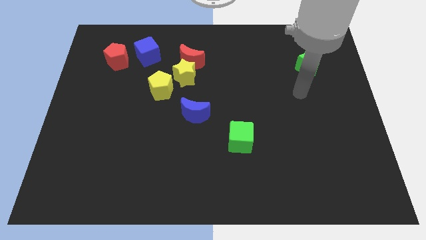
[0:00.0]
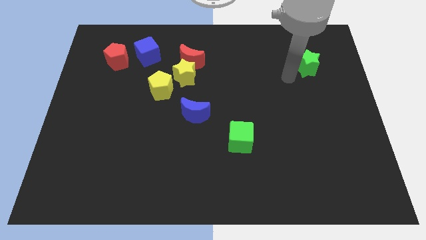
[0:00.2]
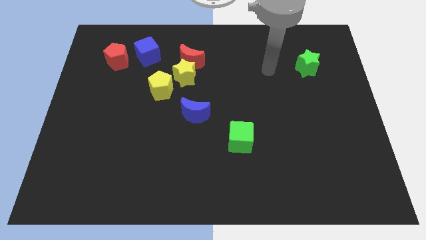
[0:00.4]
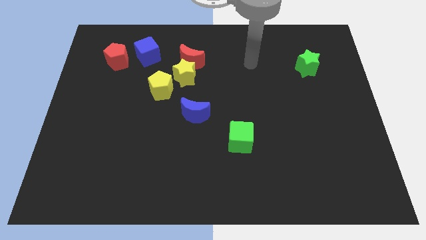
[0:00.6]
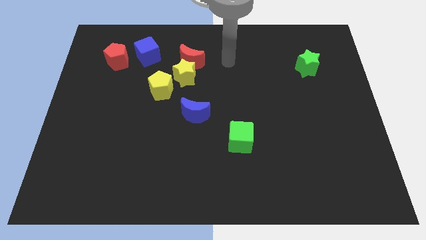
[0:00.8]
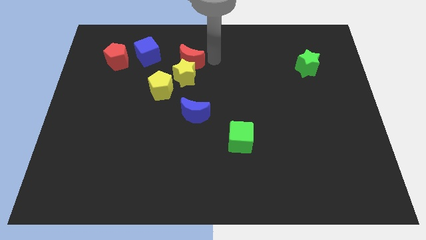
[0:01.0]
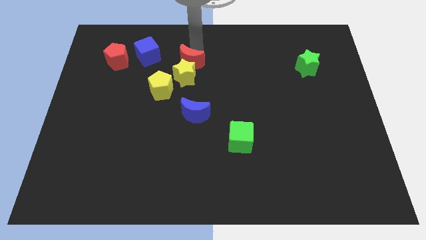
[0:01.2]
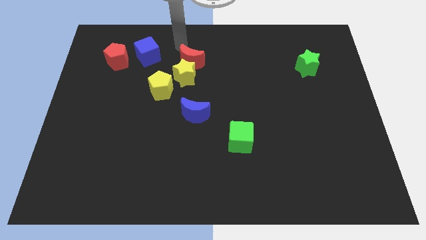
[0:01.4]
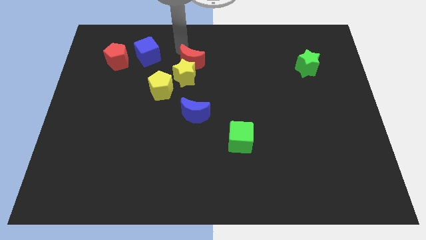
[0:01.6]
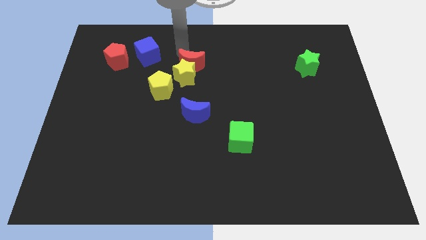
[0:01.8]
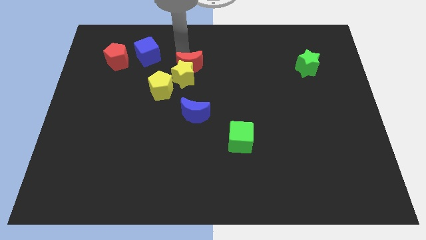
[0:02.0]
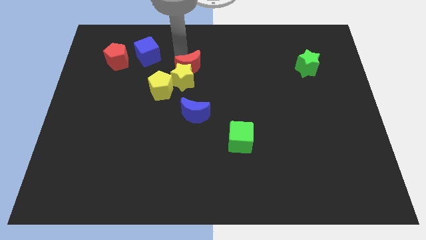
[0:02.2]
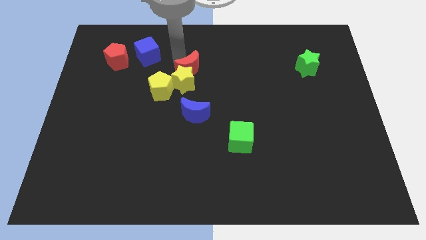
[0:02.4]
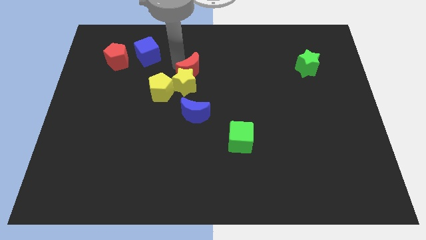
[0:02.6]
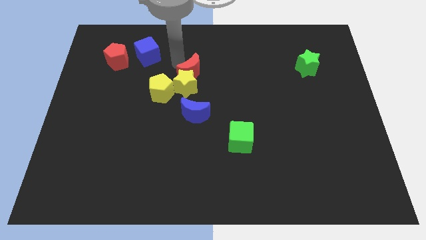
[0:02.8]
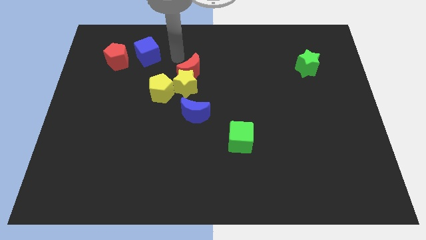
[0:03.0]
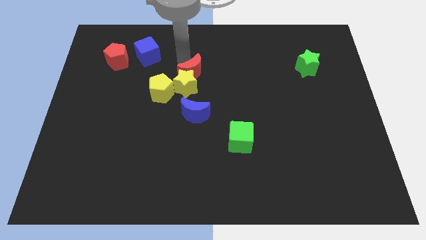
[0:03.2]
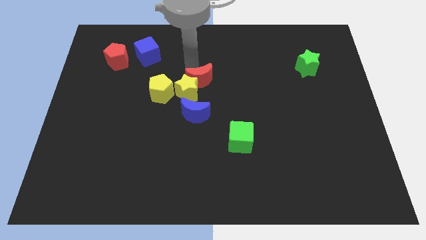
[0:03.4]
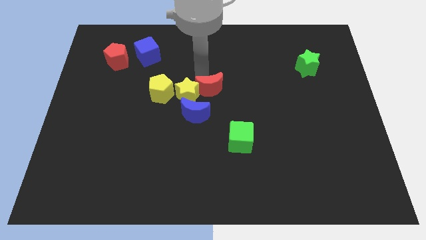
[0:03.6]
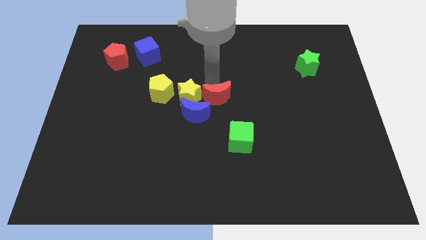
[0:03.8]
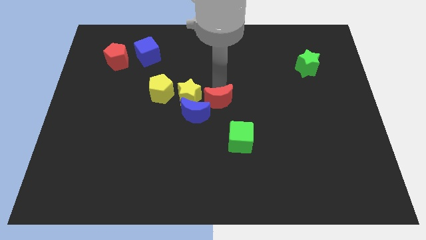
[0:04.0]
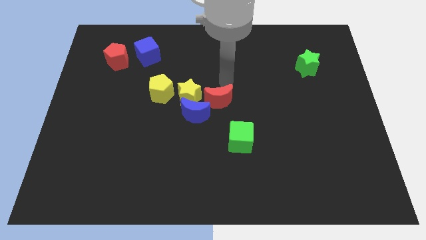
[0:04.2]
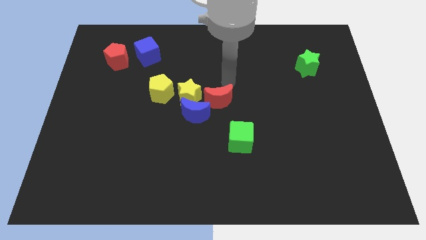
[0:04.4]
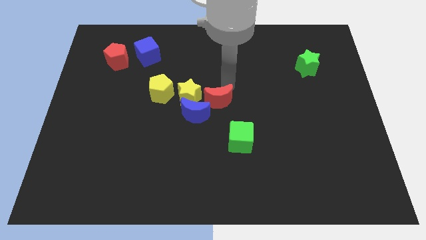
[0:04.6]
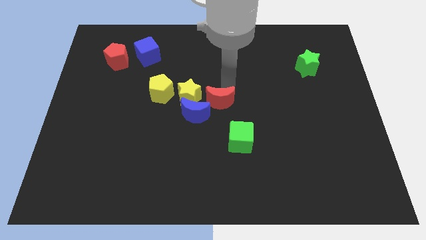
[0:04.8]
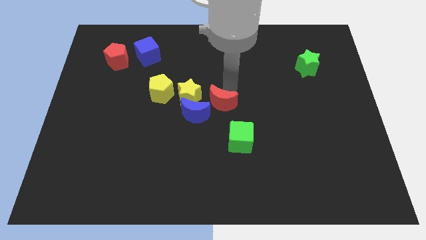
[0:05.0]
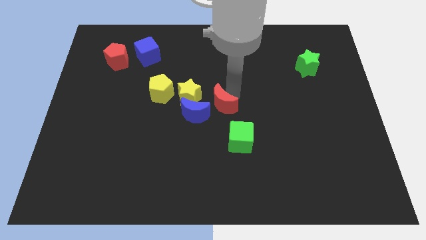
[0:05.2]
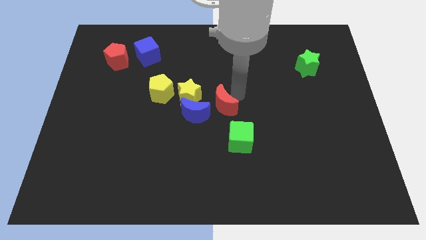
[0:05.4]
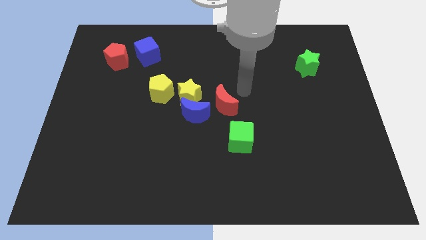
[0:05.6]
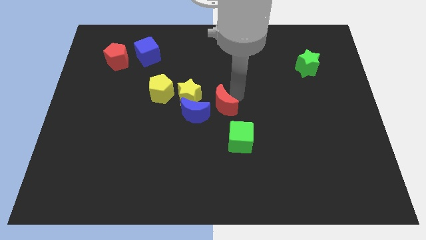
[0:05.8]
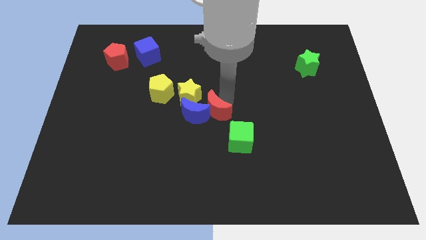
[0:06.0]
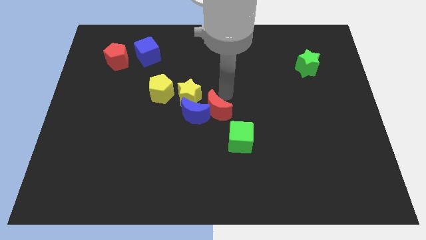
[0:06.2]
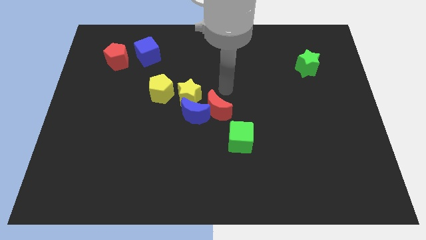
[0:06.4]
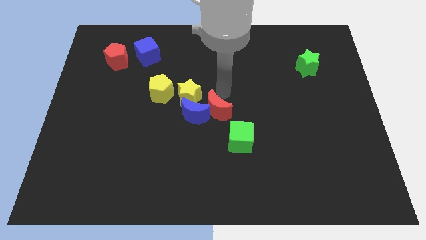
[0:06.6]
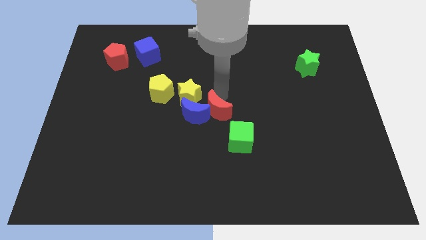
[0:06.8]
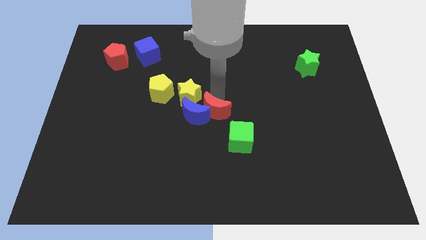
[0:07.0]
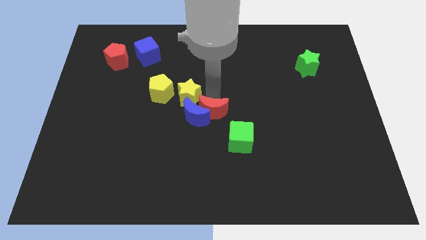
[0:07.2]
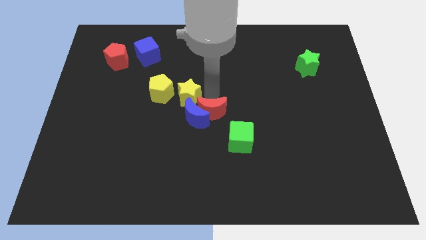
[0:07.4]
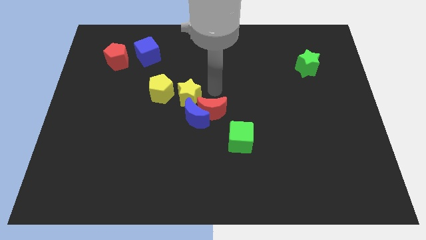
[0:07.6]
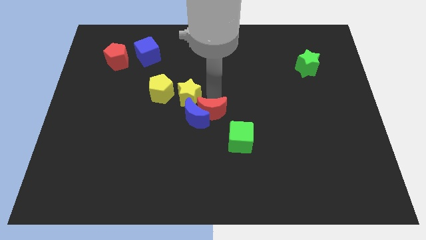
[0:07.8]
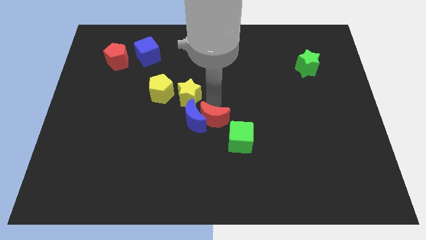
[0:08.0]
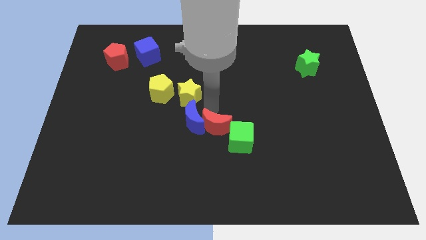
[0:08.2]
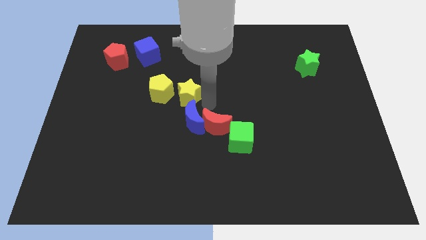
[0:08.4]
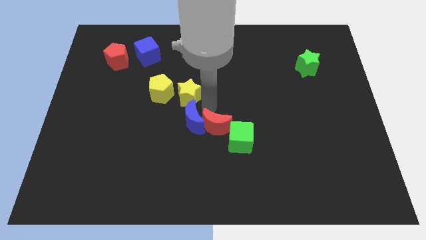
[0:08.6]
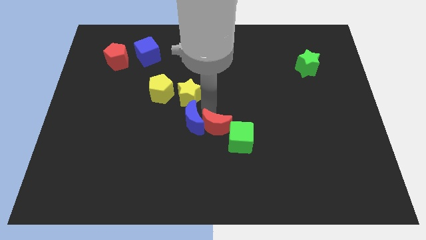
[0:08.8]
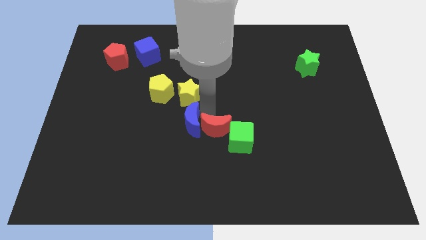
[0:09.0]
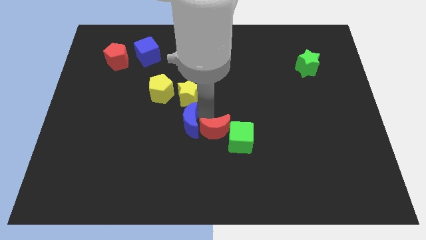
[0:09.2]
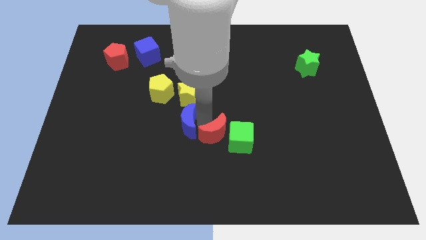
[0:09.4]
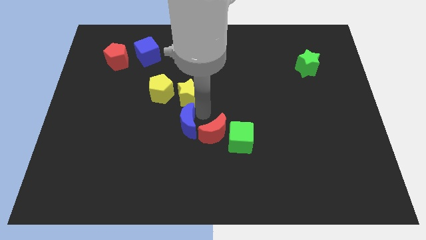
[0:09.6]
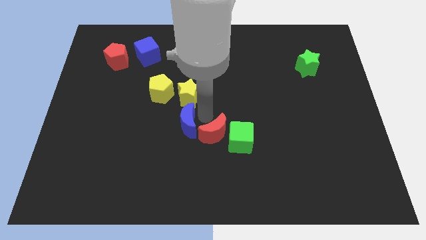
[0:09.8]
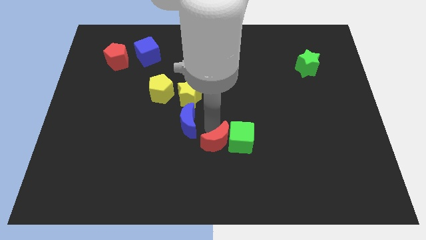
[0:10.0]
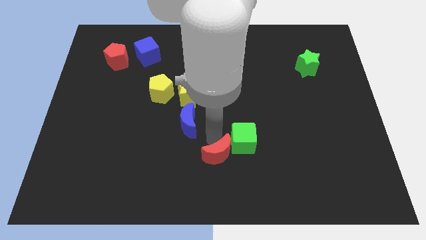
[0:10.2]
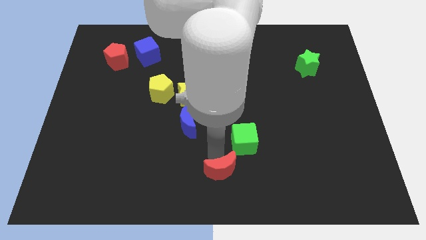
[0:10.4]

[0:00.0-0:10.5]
push the red moon to the bottom of the green cube

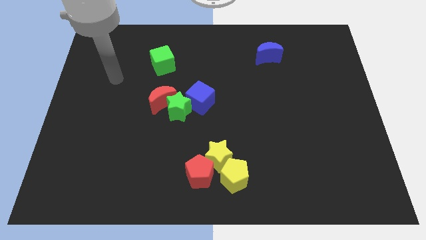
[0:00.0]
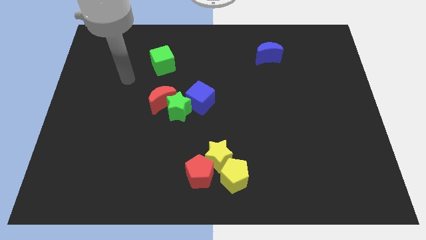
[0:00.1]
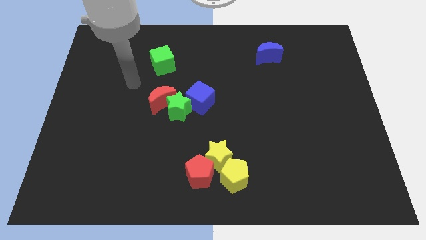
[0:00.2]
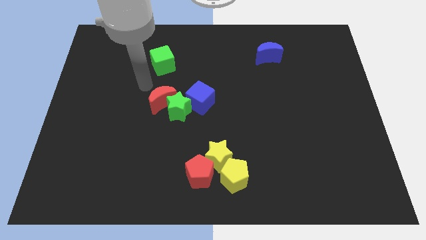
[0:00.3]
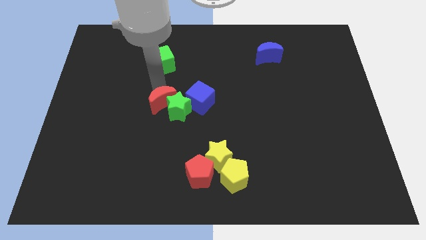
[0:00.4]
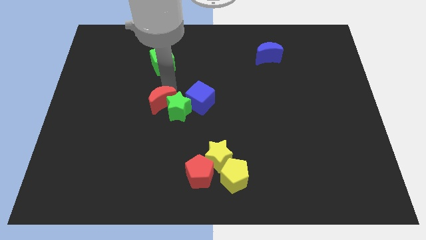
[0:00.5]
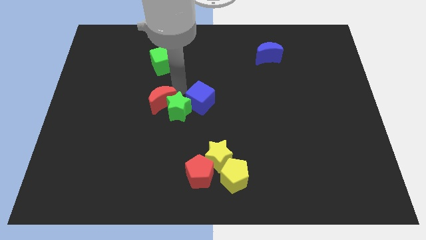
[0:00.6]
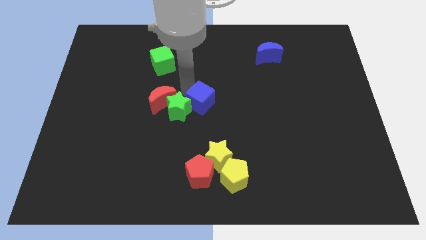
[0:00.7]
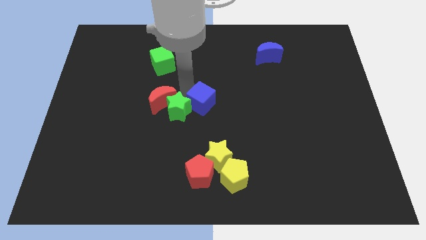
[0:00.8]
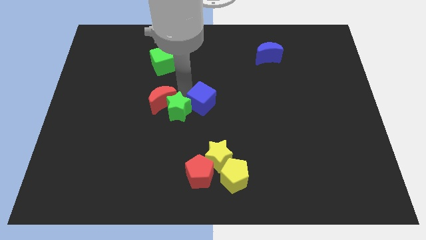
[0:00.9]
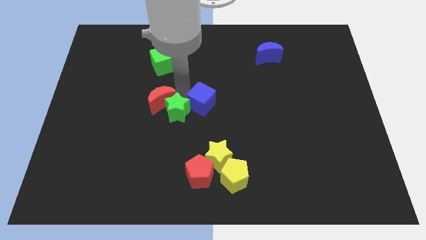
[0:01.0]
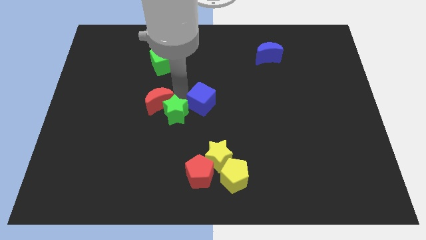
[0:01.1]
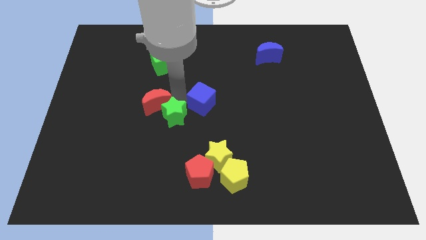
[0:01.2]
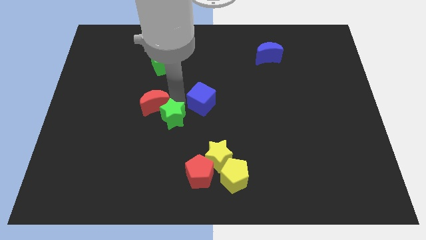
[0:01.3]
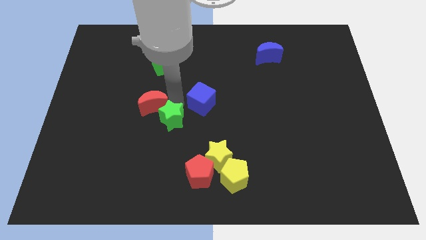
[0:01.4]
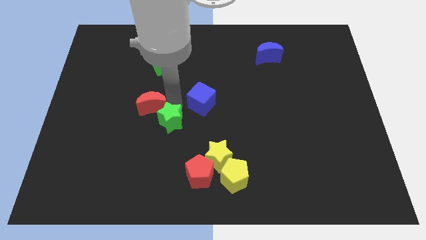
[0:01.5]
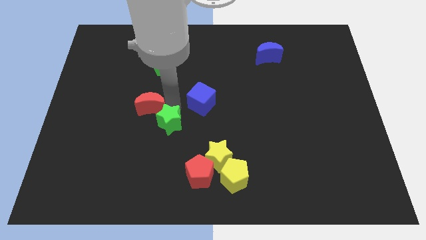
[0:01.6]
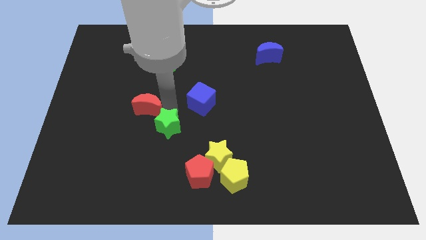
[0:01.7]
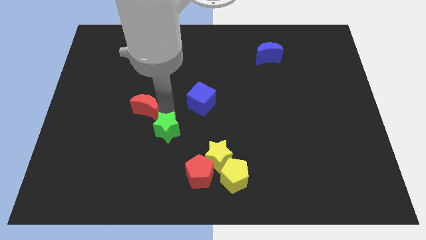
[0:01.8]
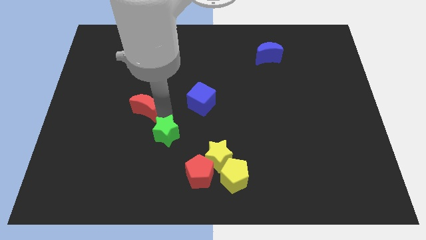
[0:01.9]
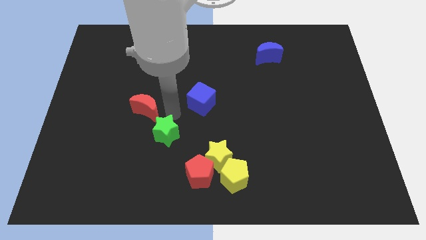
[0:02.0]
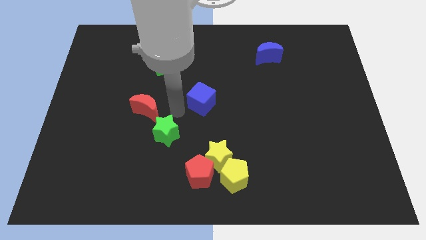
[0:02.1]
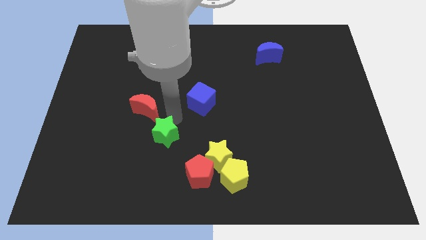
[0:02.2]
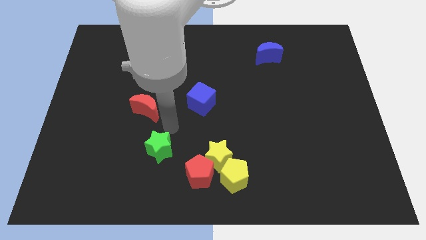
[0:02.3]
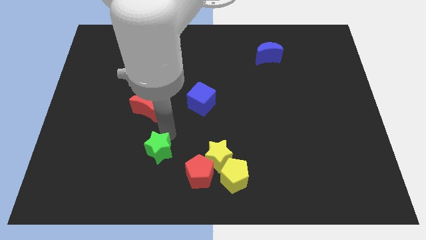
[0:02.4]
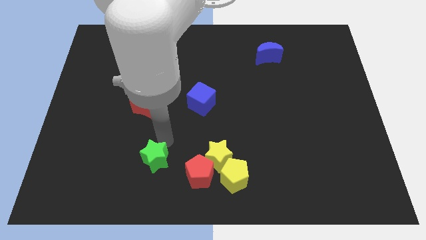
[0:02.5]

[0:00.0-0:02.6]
move the green star left of the red pentagon
